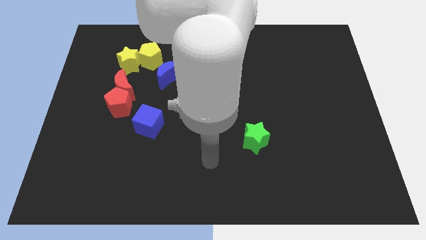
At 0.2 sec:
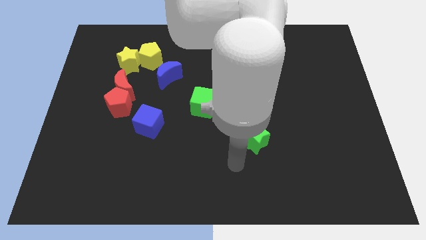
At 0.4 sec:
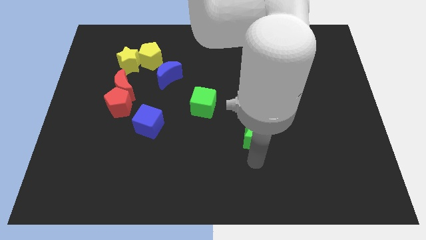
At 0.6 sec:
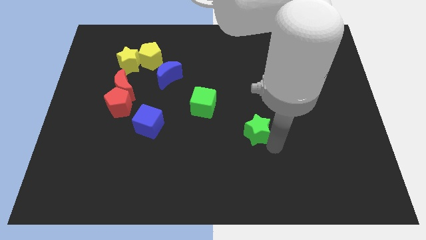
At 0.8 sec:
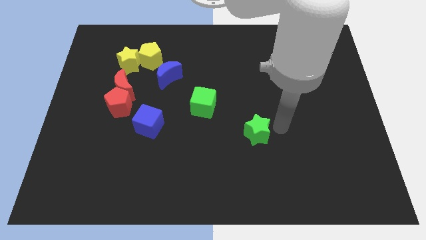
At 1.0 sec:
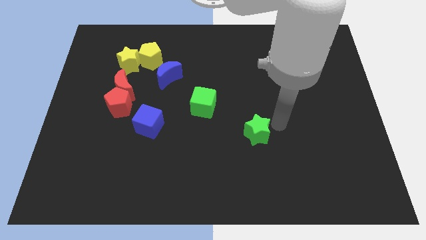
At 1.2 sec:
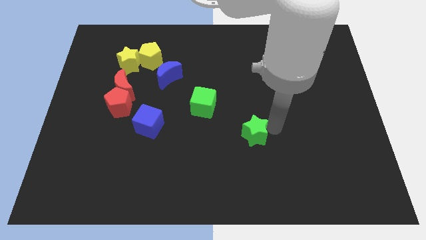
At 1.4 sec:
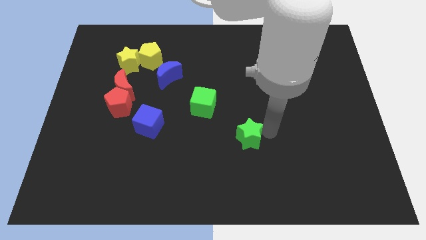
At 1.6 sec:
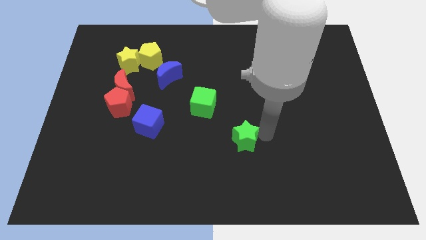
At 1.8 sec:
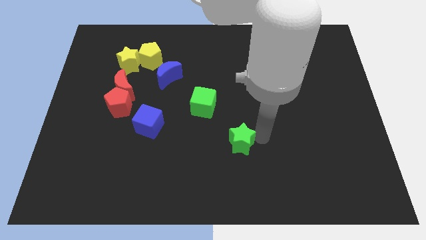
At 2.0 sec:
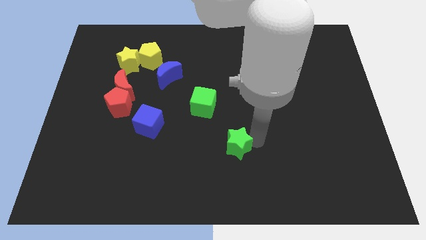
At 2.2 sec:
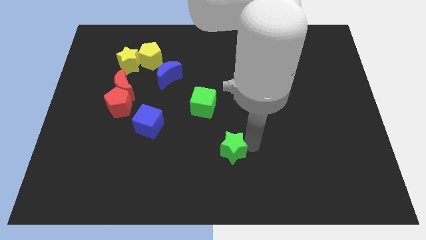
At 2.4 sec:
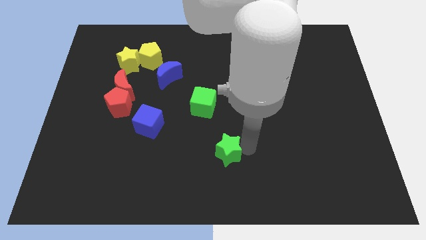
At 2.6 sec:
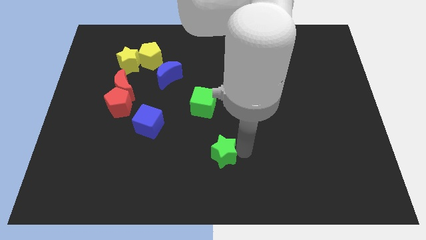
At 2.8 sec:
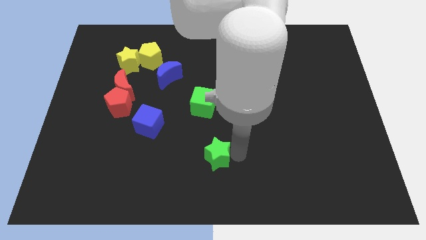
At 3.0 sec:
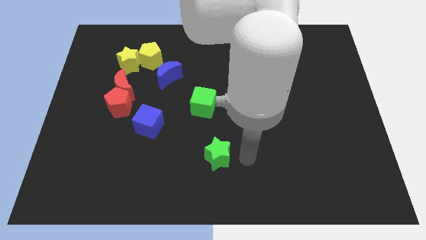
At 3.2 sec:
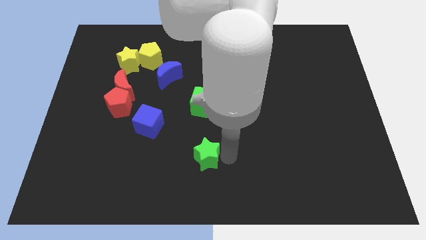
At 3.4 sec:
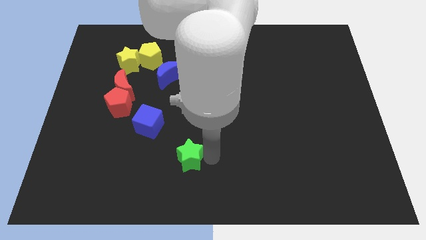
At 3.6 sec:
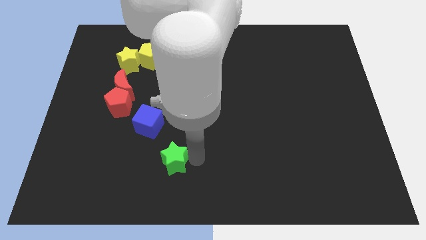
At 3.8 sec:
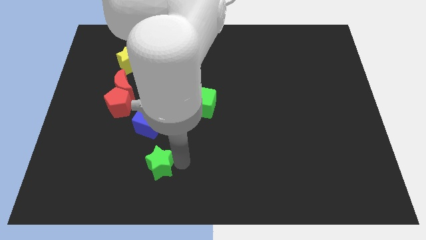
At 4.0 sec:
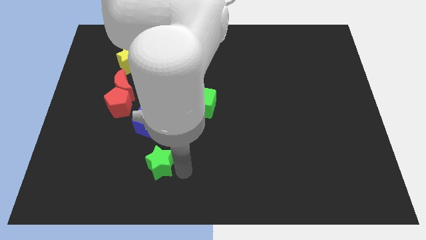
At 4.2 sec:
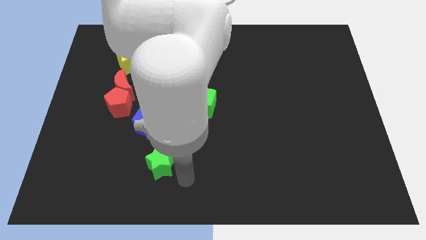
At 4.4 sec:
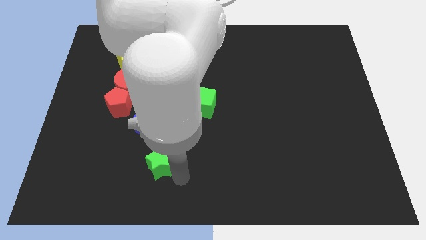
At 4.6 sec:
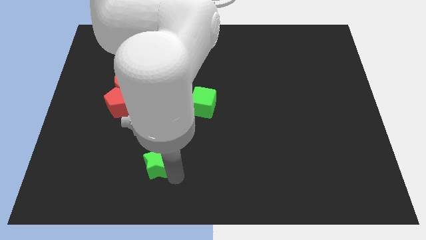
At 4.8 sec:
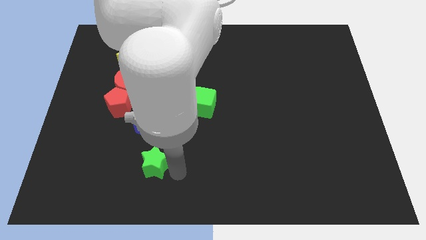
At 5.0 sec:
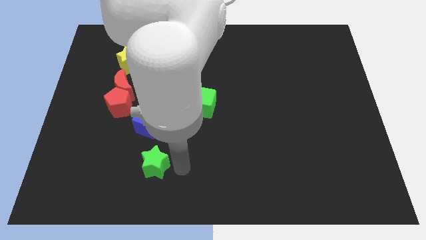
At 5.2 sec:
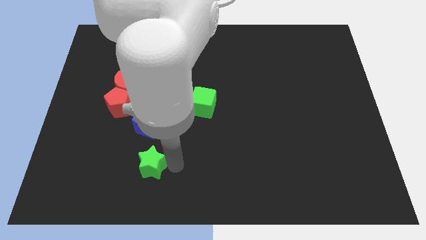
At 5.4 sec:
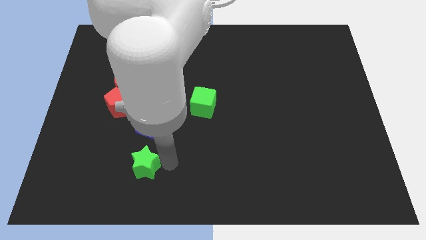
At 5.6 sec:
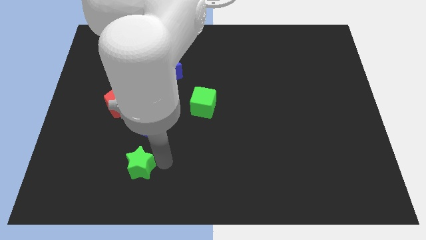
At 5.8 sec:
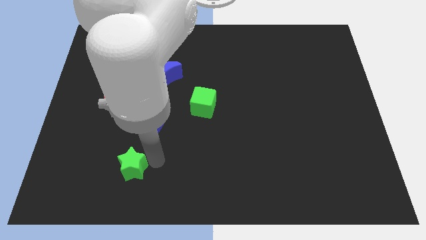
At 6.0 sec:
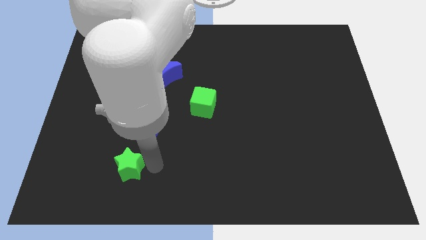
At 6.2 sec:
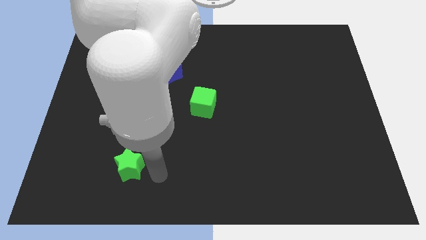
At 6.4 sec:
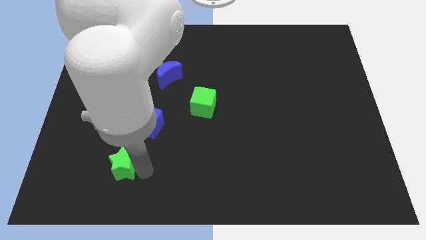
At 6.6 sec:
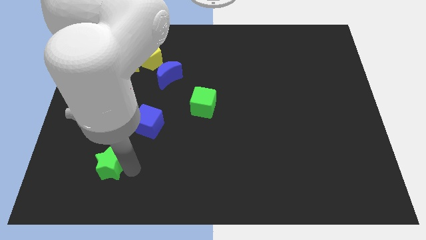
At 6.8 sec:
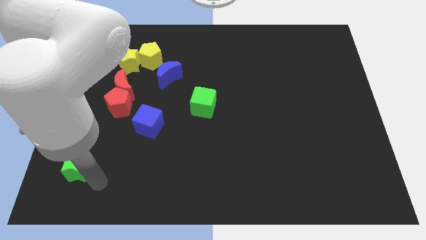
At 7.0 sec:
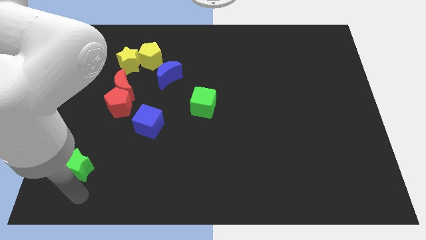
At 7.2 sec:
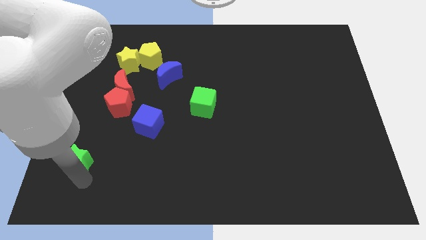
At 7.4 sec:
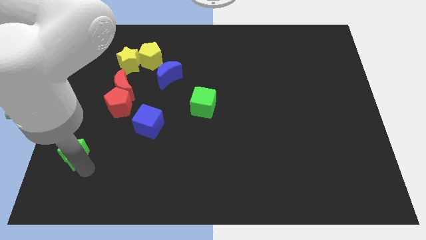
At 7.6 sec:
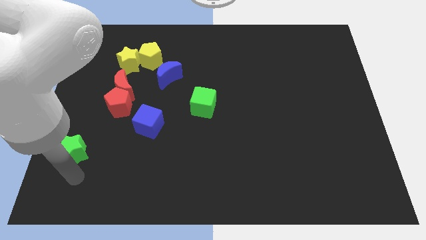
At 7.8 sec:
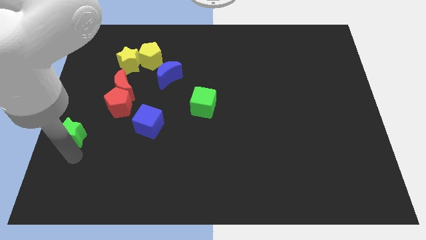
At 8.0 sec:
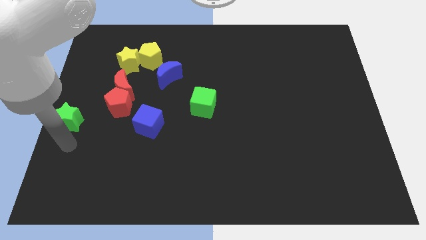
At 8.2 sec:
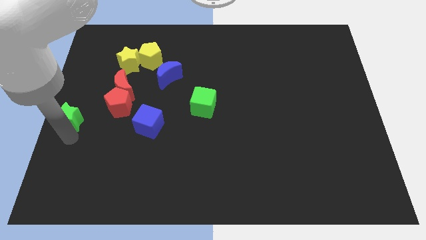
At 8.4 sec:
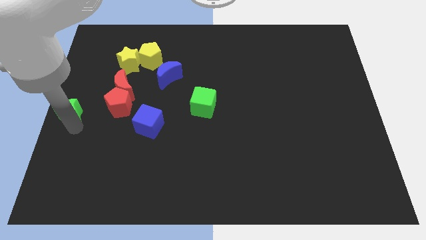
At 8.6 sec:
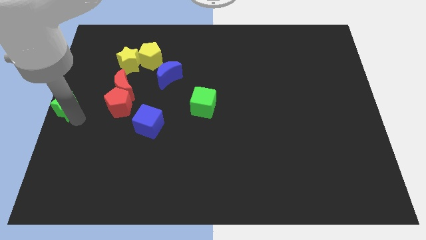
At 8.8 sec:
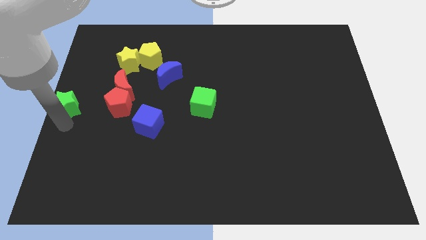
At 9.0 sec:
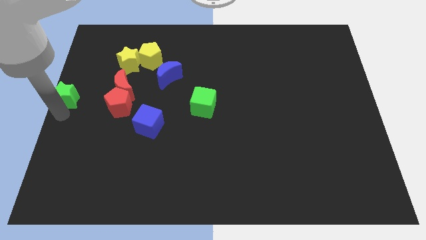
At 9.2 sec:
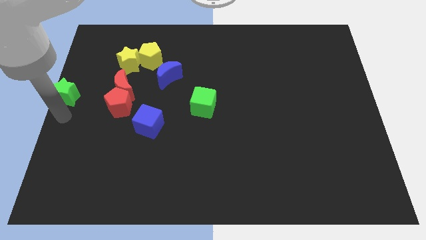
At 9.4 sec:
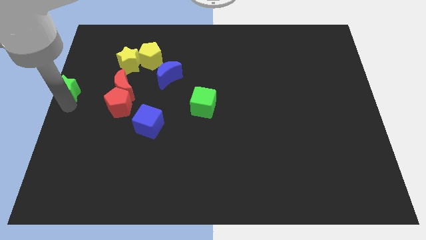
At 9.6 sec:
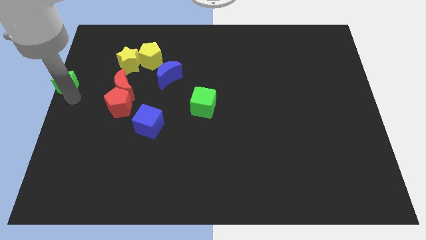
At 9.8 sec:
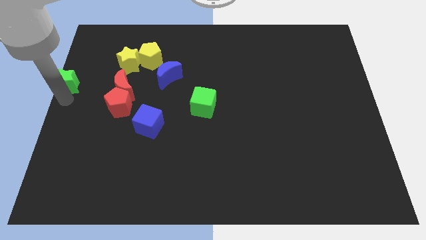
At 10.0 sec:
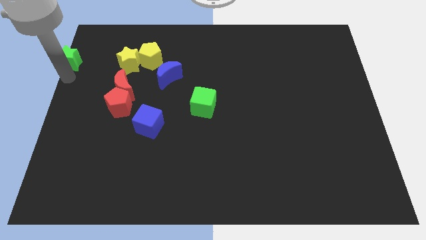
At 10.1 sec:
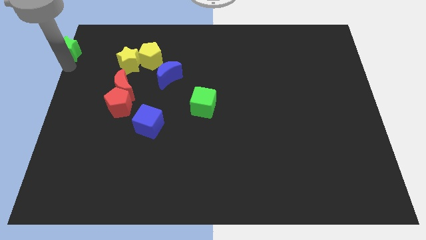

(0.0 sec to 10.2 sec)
move the green star to the top left of the board

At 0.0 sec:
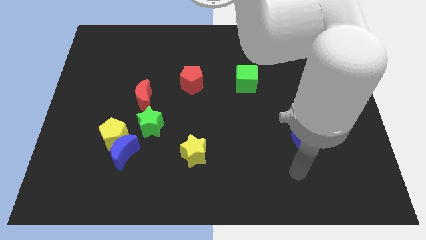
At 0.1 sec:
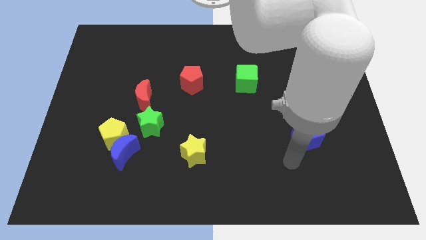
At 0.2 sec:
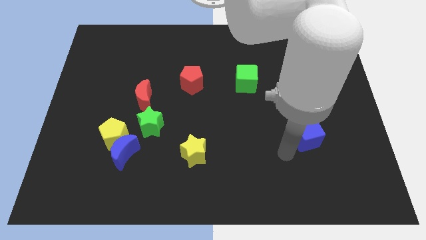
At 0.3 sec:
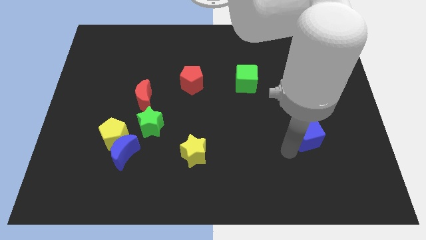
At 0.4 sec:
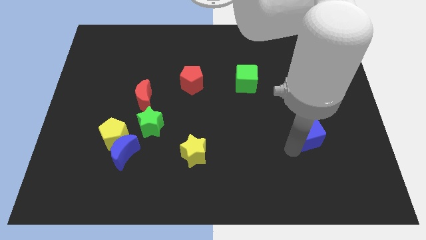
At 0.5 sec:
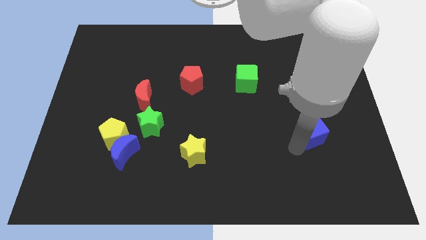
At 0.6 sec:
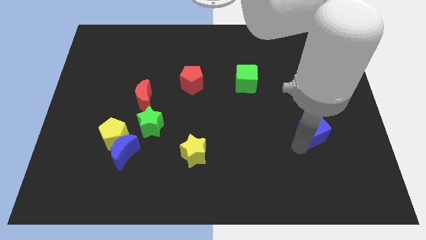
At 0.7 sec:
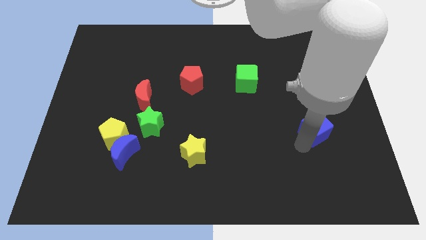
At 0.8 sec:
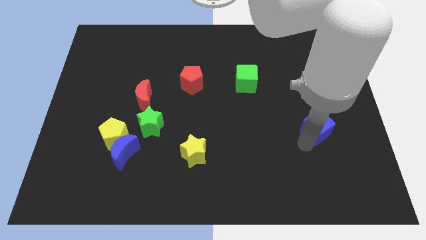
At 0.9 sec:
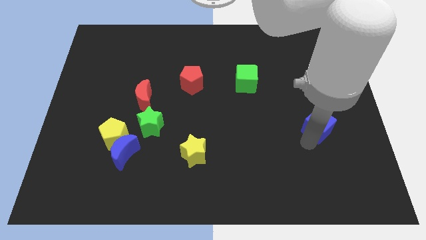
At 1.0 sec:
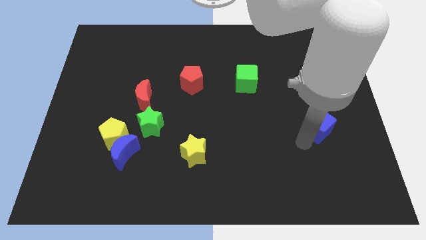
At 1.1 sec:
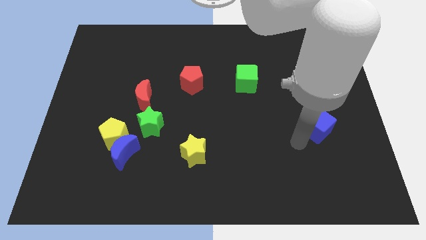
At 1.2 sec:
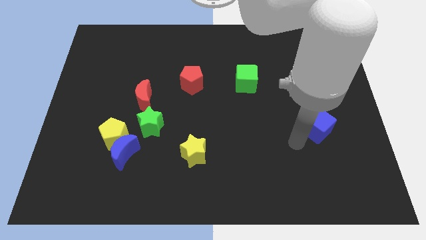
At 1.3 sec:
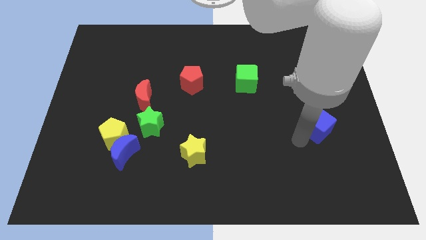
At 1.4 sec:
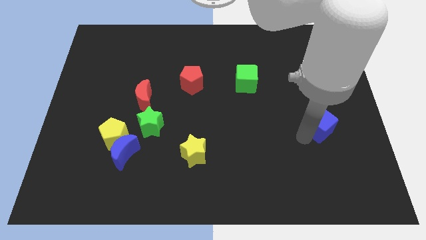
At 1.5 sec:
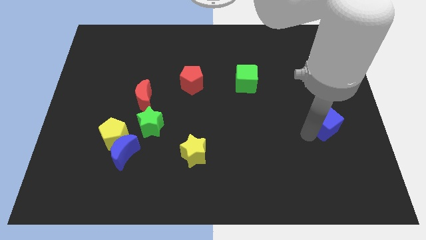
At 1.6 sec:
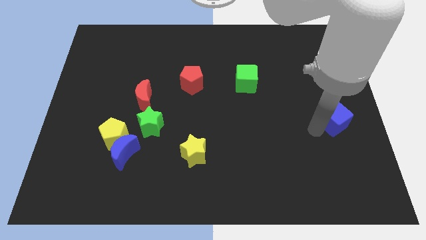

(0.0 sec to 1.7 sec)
move the blue cube to the right side of the board
